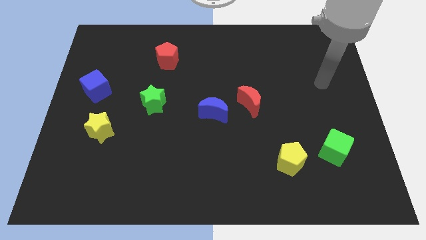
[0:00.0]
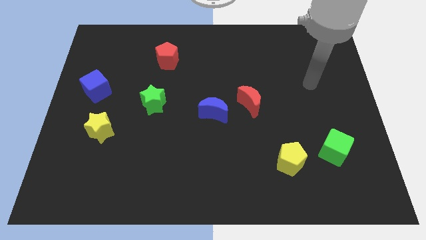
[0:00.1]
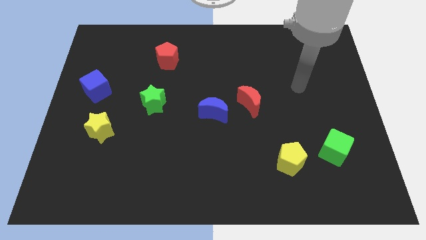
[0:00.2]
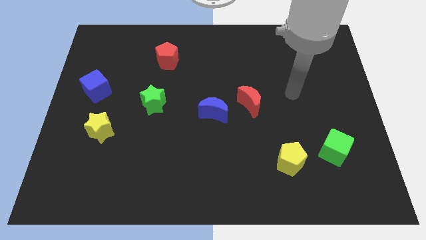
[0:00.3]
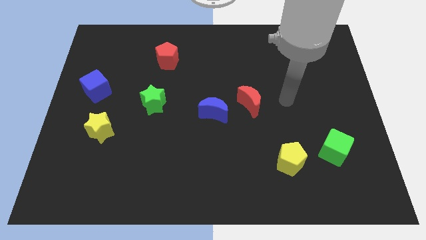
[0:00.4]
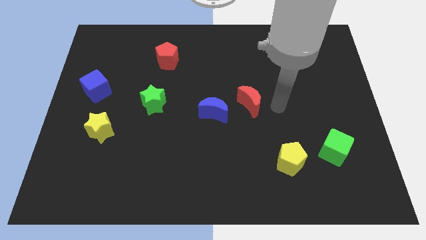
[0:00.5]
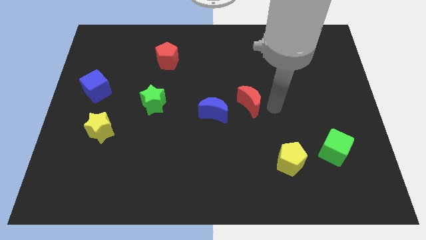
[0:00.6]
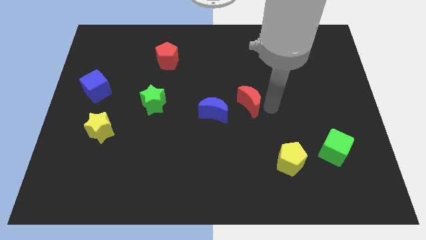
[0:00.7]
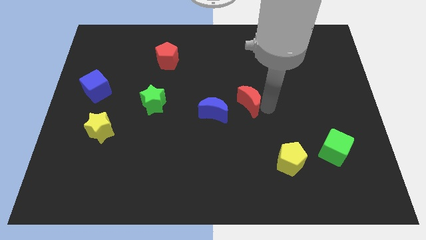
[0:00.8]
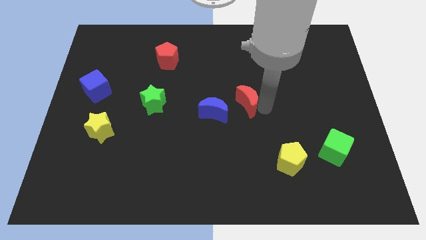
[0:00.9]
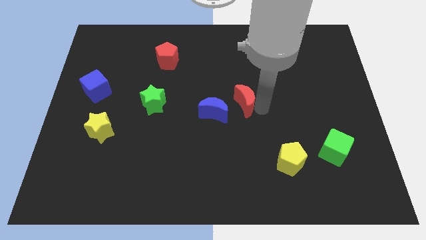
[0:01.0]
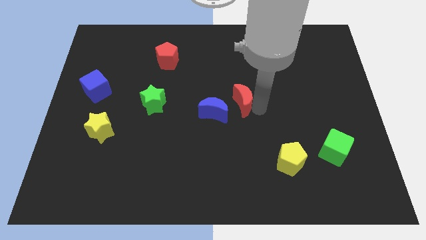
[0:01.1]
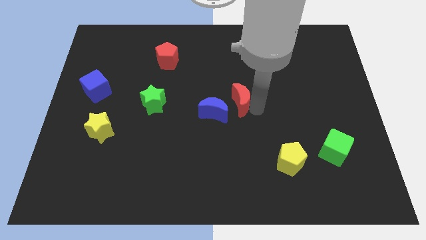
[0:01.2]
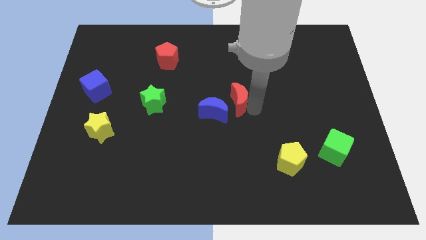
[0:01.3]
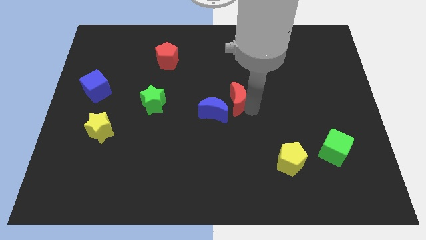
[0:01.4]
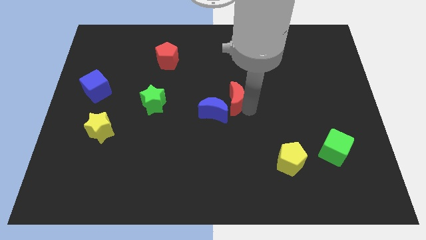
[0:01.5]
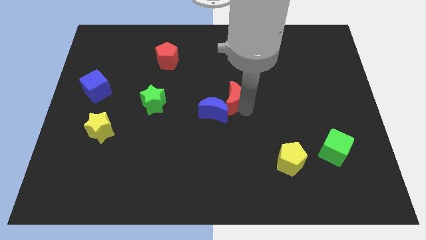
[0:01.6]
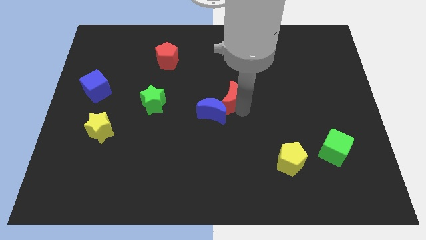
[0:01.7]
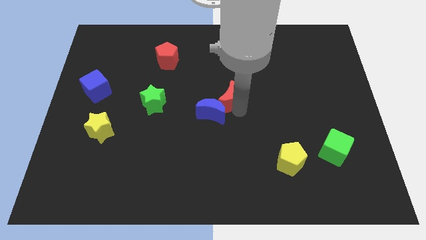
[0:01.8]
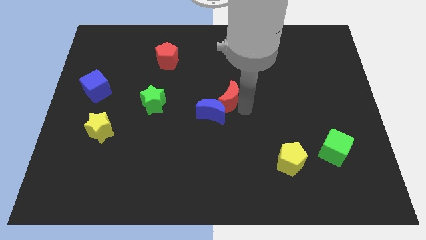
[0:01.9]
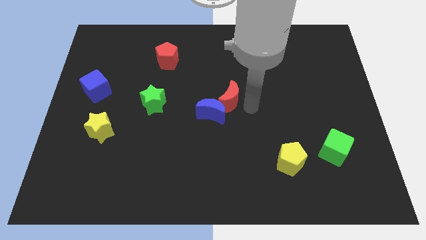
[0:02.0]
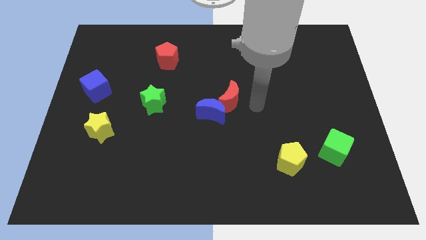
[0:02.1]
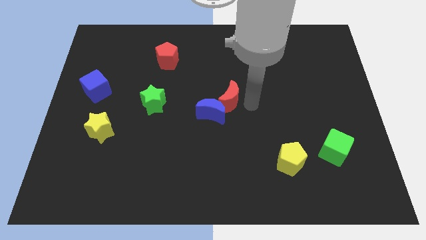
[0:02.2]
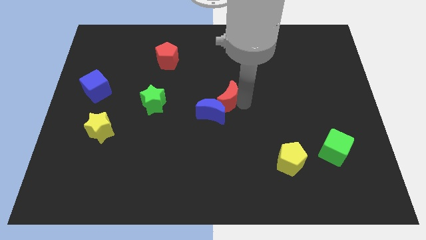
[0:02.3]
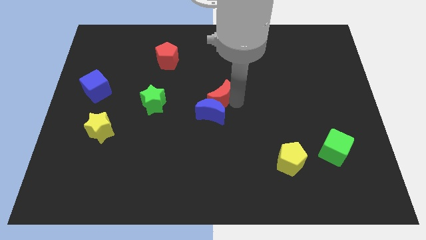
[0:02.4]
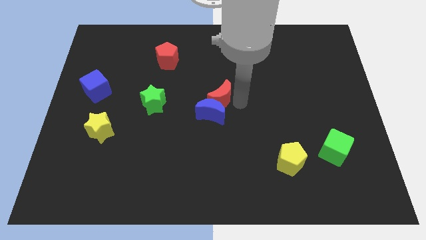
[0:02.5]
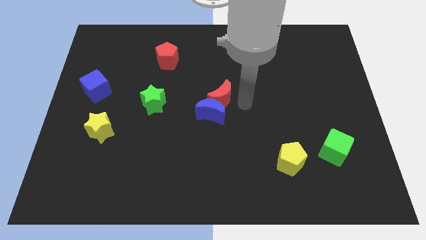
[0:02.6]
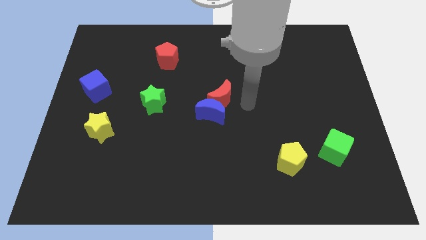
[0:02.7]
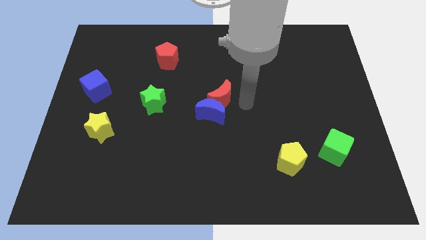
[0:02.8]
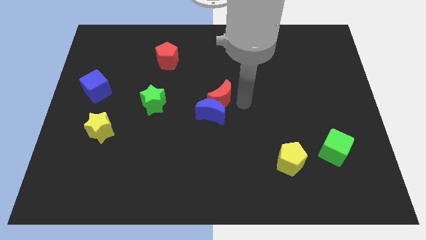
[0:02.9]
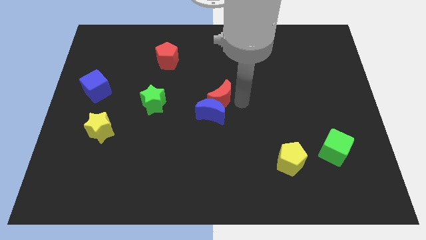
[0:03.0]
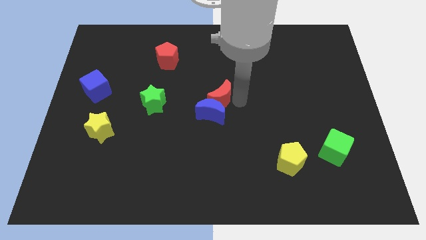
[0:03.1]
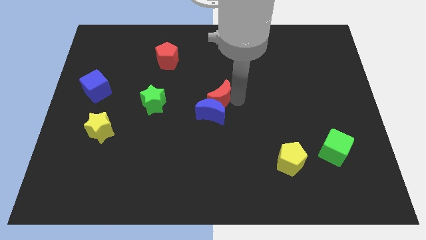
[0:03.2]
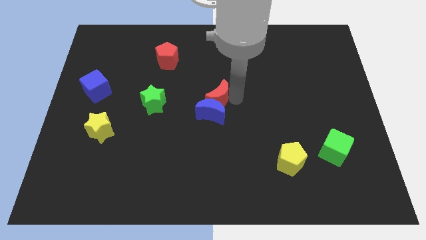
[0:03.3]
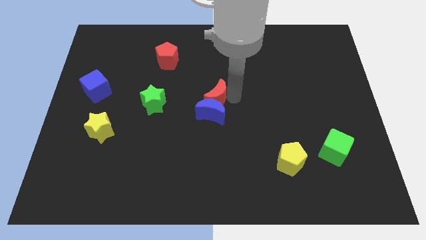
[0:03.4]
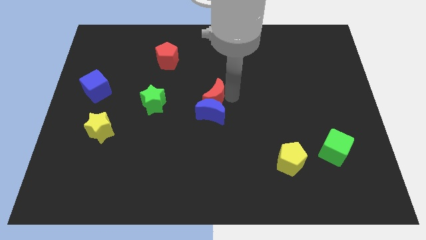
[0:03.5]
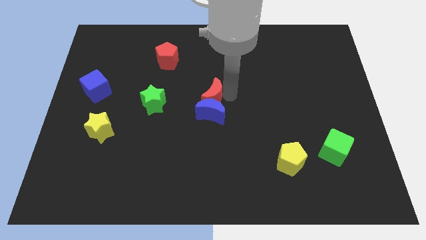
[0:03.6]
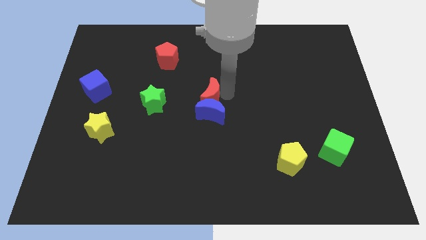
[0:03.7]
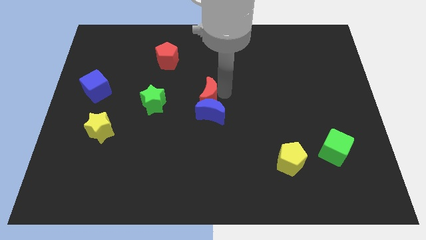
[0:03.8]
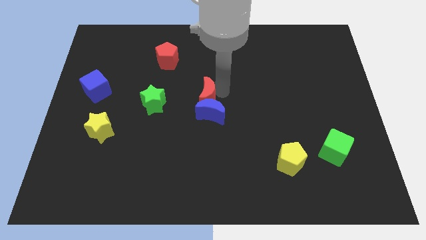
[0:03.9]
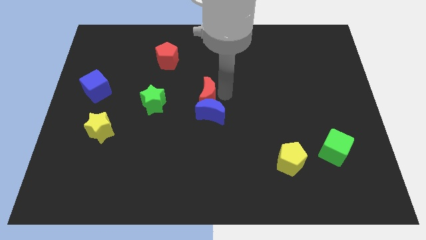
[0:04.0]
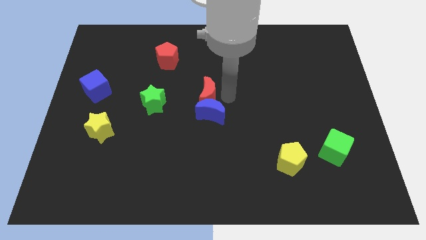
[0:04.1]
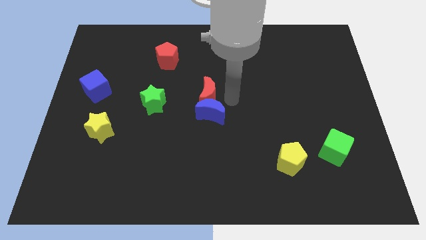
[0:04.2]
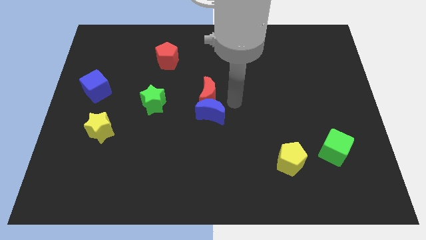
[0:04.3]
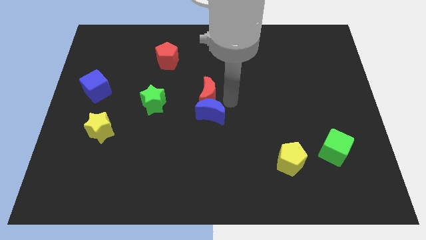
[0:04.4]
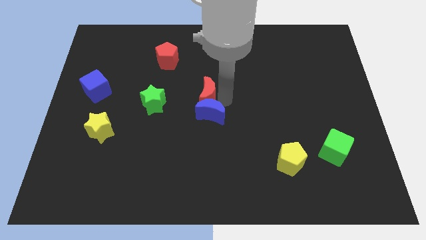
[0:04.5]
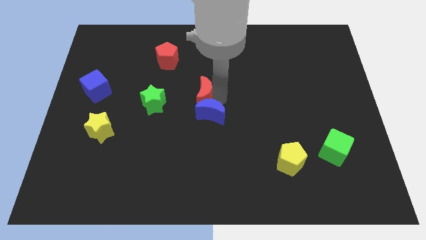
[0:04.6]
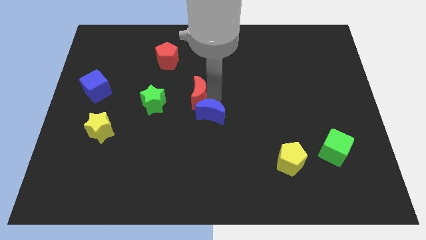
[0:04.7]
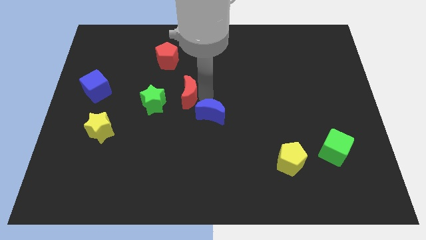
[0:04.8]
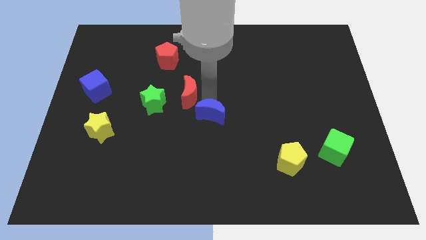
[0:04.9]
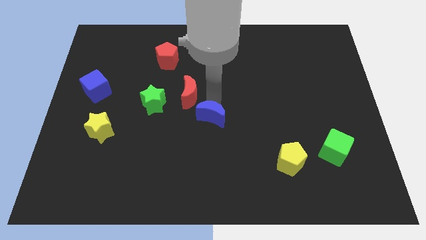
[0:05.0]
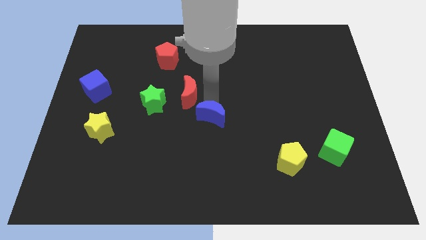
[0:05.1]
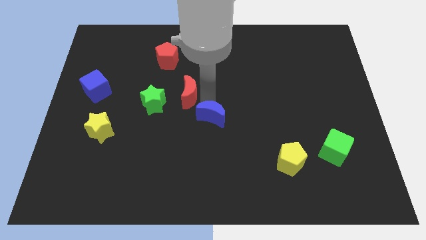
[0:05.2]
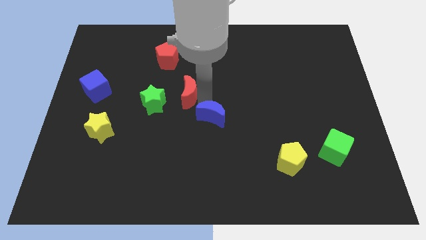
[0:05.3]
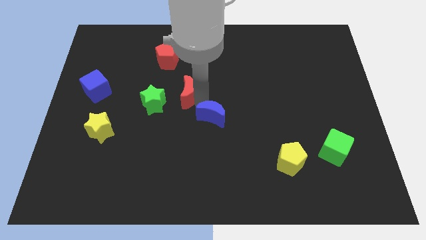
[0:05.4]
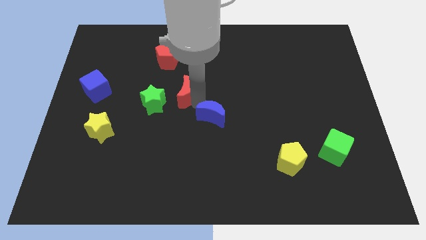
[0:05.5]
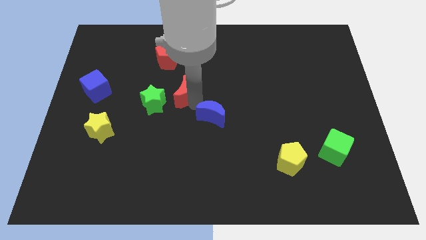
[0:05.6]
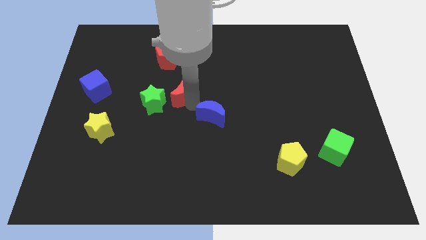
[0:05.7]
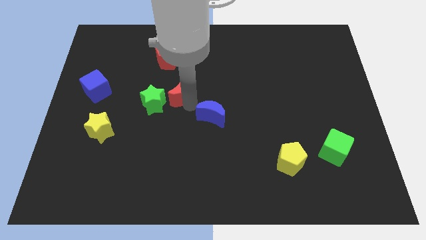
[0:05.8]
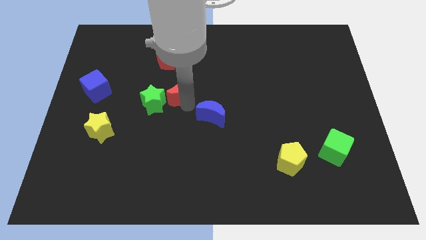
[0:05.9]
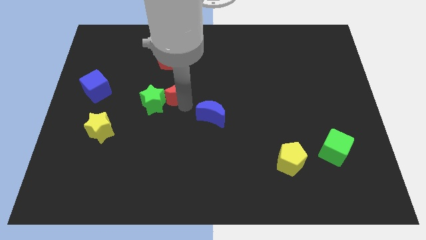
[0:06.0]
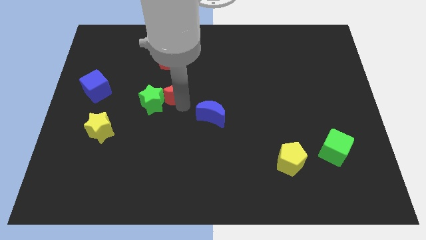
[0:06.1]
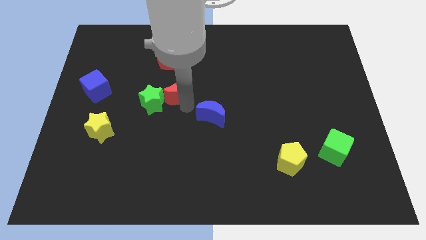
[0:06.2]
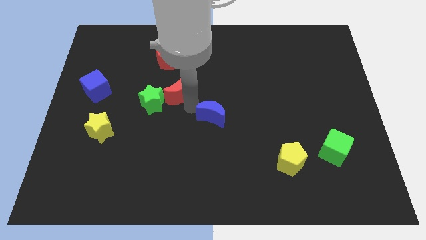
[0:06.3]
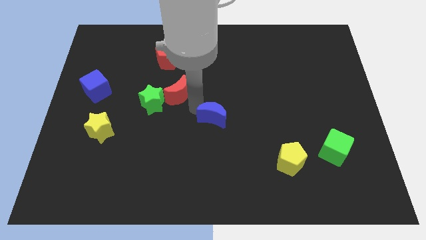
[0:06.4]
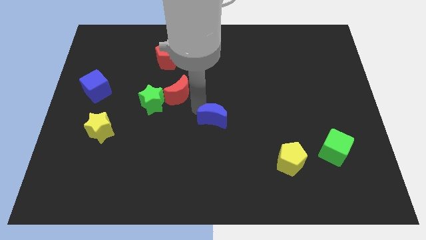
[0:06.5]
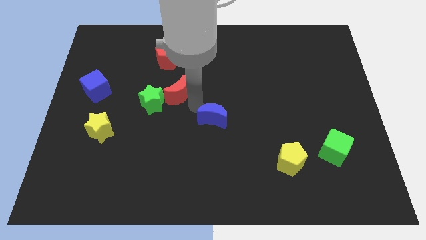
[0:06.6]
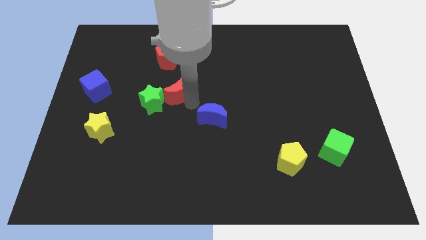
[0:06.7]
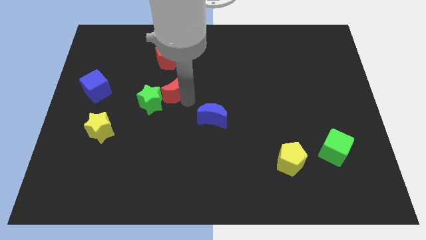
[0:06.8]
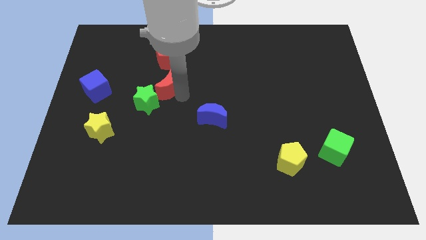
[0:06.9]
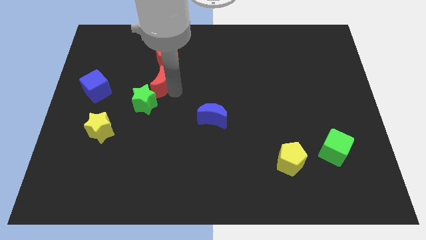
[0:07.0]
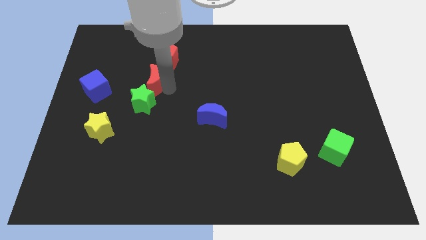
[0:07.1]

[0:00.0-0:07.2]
move the red moon diagonally down and to the left of the red pentagon

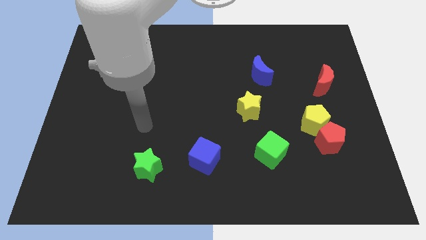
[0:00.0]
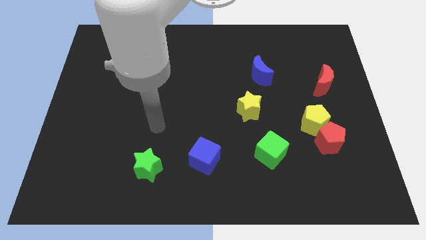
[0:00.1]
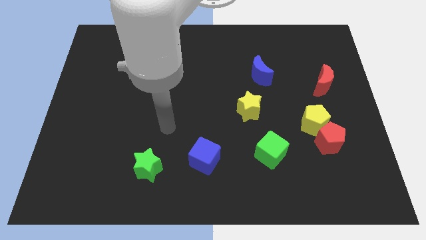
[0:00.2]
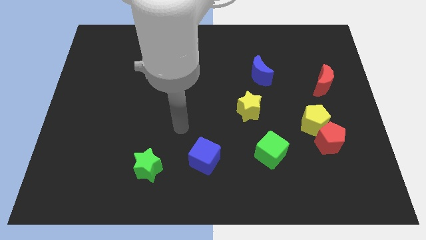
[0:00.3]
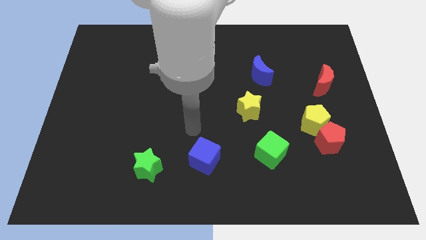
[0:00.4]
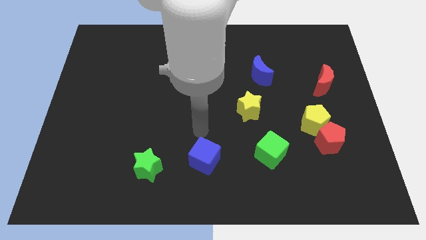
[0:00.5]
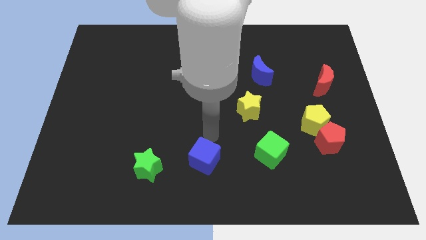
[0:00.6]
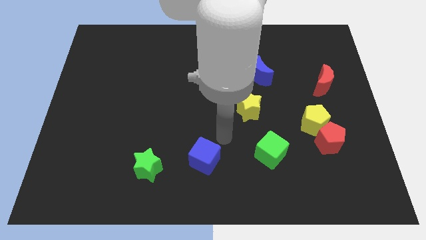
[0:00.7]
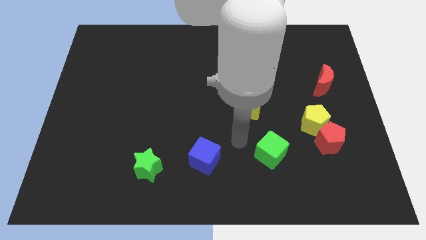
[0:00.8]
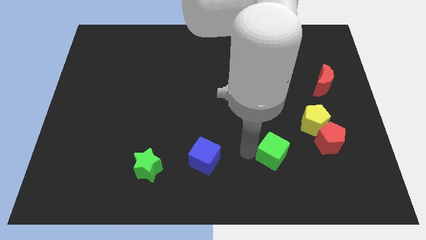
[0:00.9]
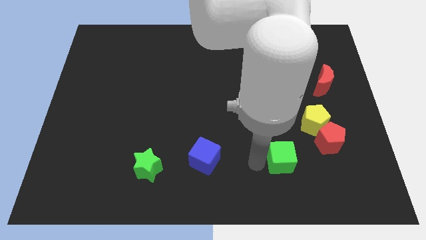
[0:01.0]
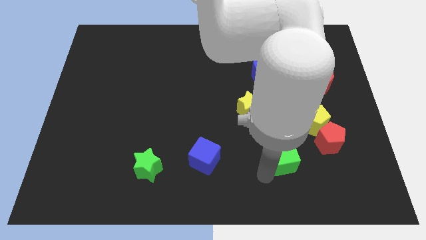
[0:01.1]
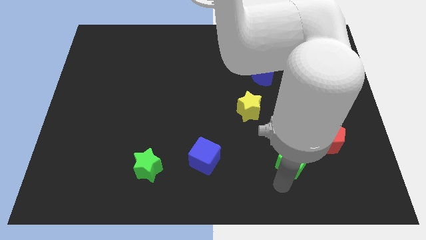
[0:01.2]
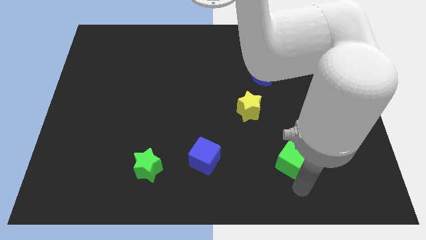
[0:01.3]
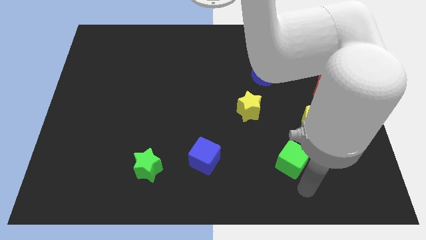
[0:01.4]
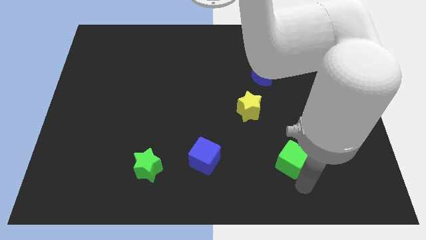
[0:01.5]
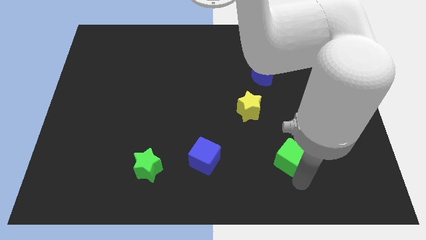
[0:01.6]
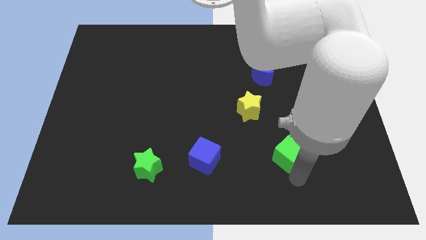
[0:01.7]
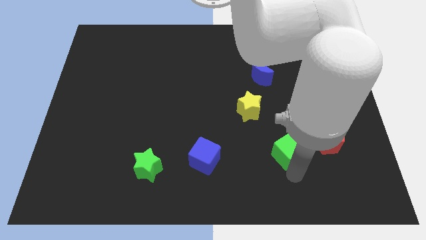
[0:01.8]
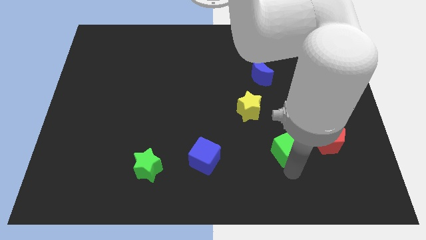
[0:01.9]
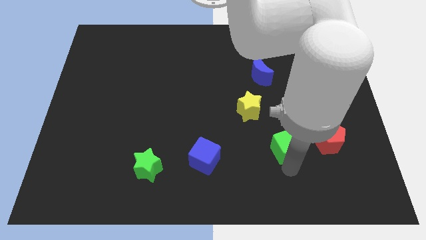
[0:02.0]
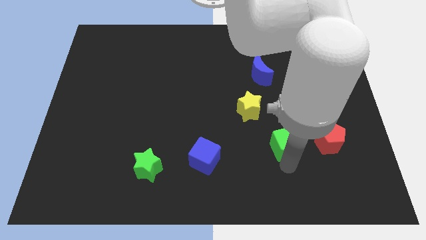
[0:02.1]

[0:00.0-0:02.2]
put the green cube to the bottom right side of the yellow star
